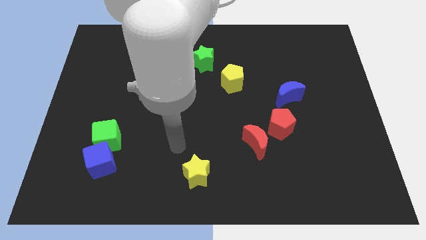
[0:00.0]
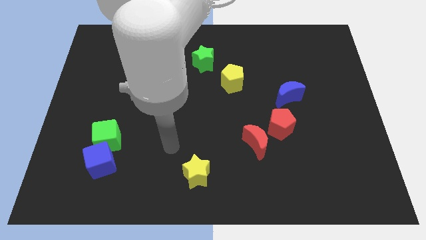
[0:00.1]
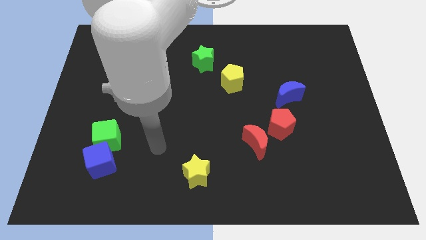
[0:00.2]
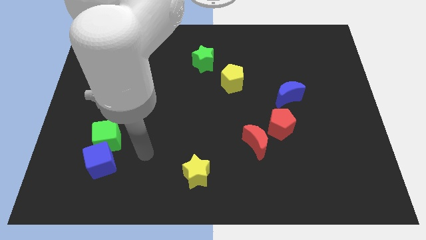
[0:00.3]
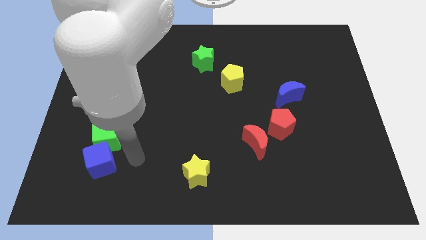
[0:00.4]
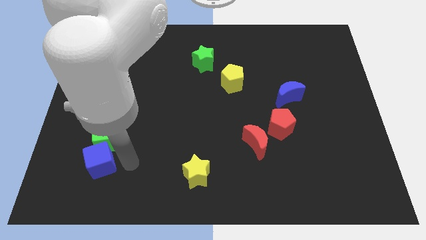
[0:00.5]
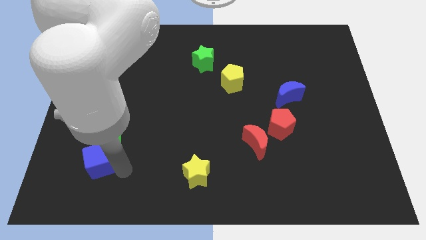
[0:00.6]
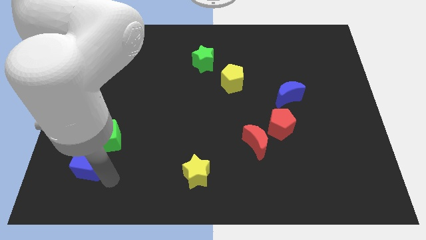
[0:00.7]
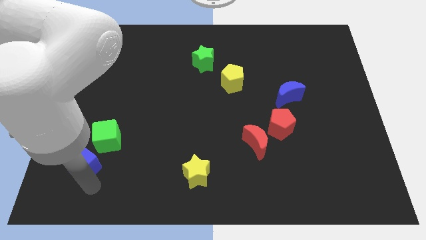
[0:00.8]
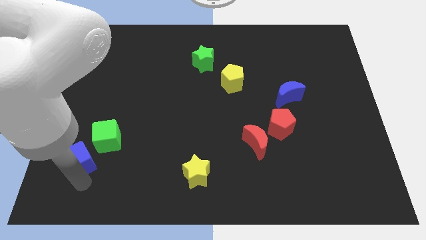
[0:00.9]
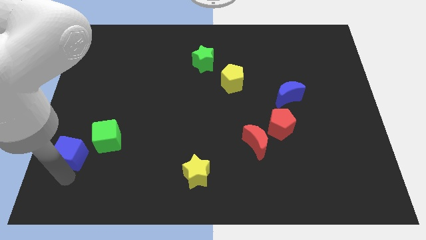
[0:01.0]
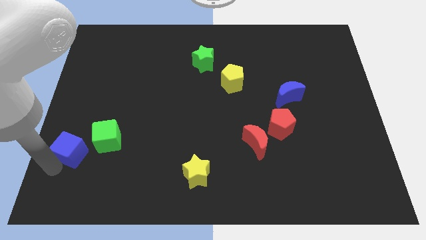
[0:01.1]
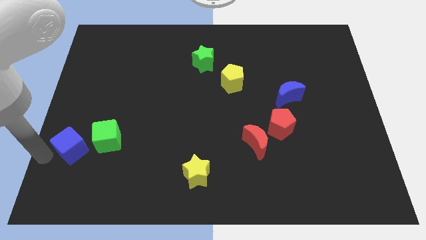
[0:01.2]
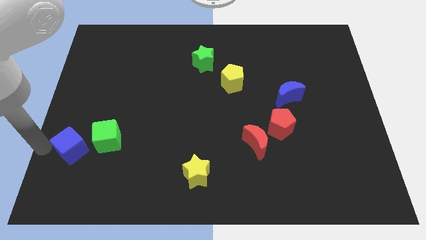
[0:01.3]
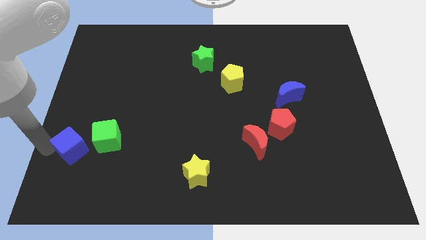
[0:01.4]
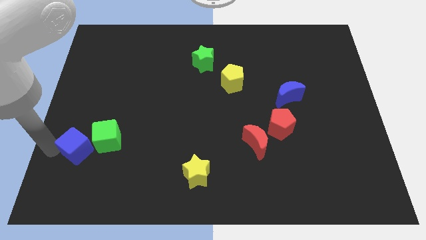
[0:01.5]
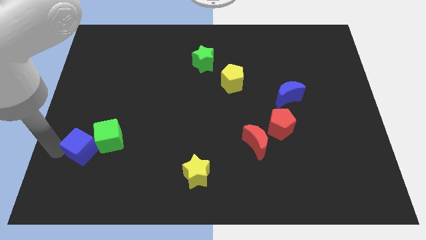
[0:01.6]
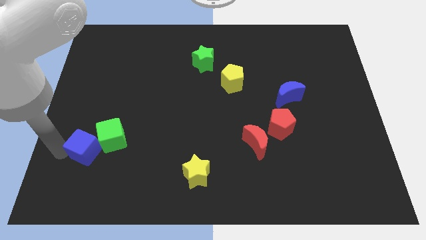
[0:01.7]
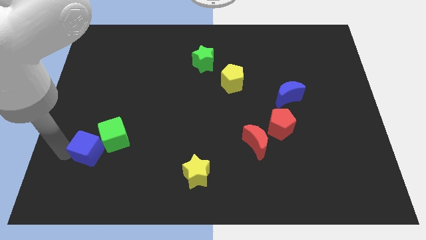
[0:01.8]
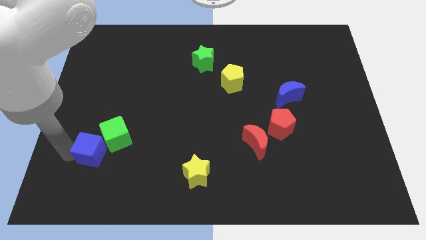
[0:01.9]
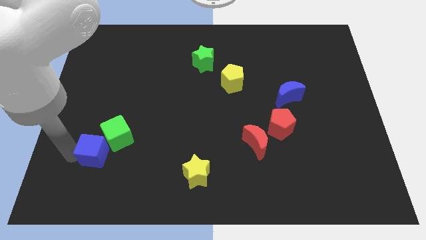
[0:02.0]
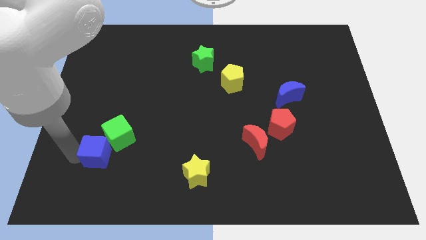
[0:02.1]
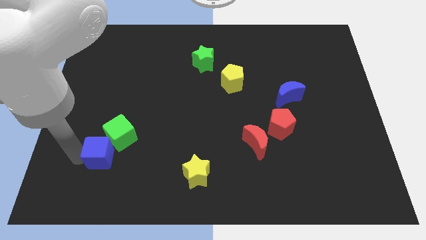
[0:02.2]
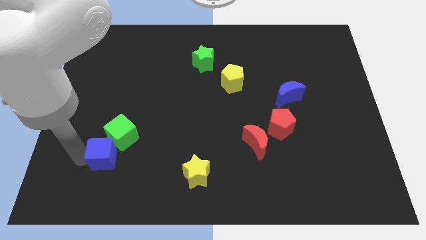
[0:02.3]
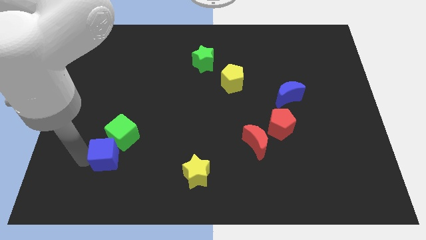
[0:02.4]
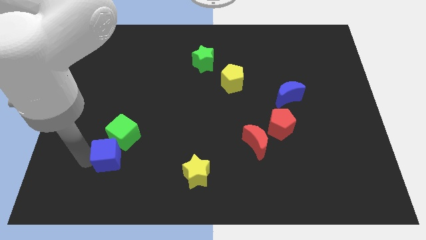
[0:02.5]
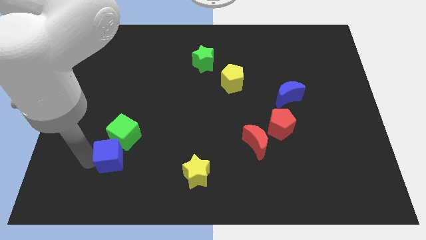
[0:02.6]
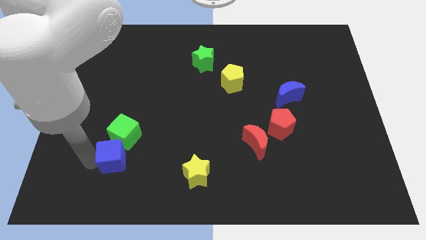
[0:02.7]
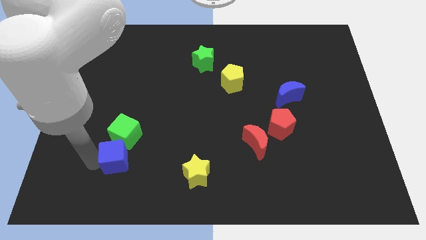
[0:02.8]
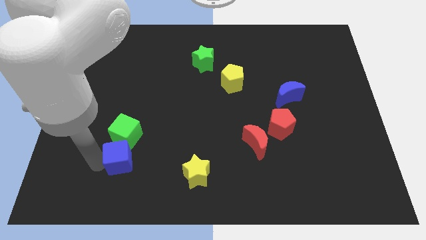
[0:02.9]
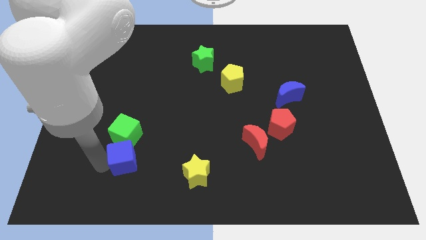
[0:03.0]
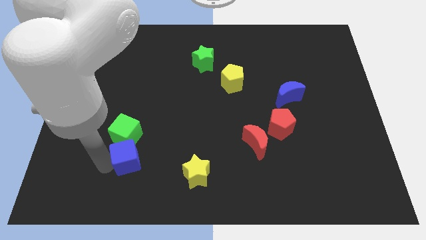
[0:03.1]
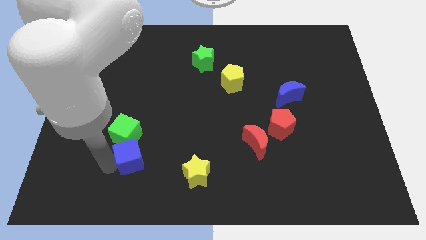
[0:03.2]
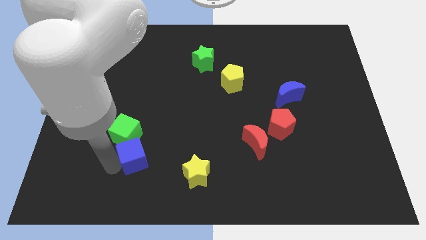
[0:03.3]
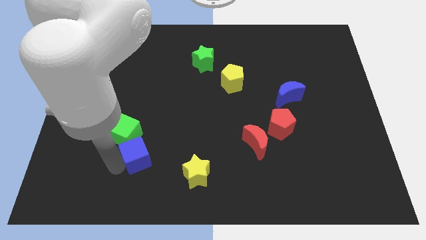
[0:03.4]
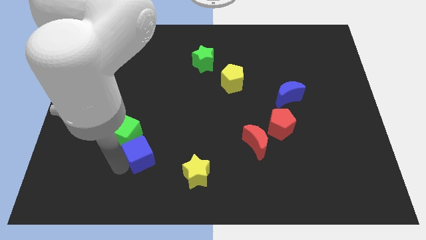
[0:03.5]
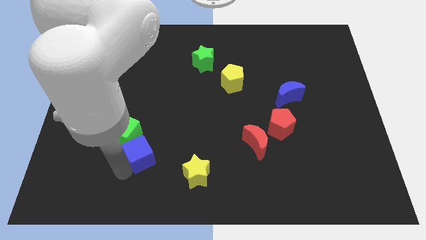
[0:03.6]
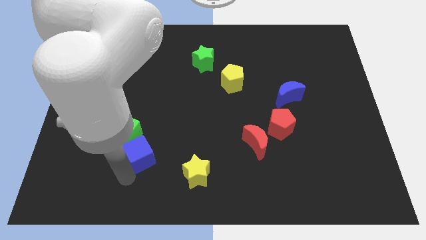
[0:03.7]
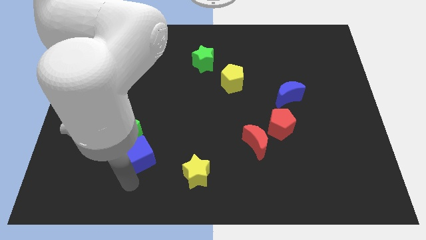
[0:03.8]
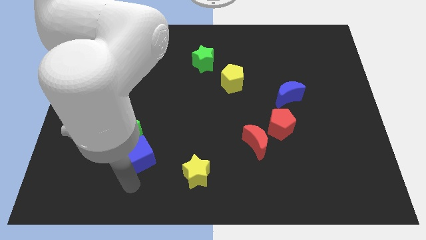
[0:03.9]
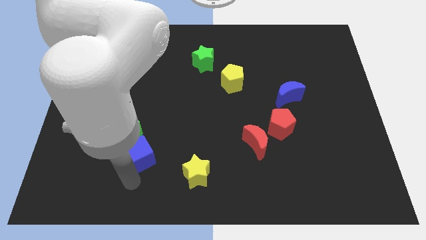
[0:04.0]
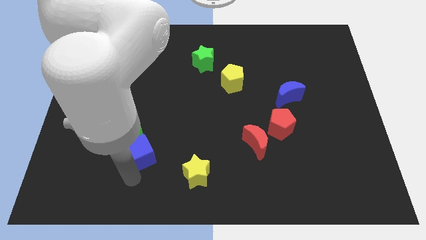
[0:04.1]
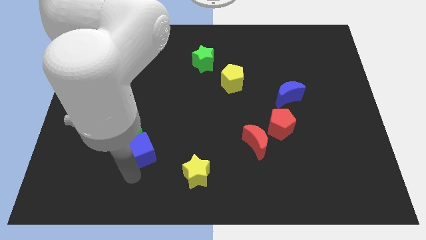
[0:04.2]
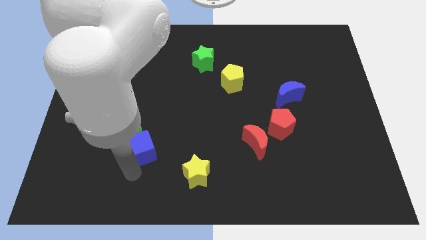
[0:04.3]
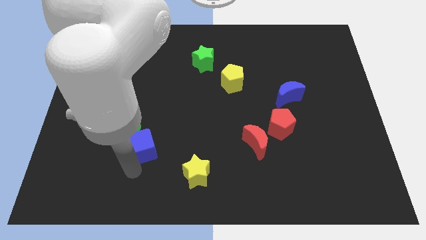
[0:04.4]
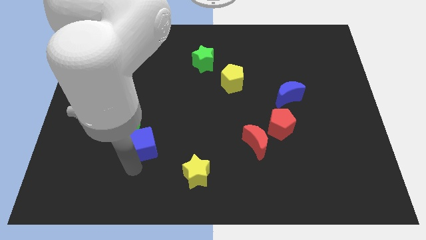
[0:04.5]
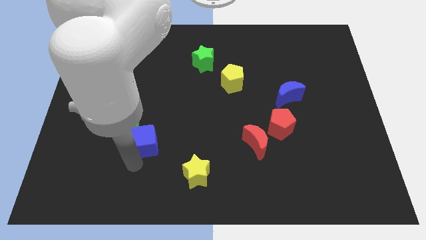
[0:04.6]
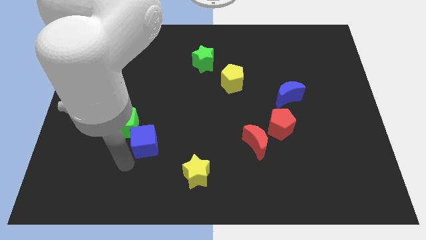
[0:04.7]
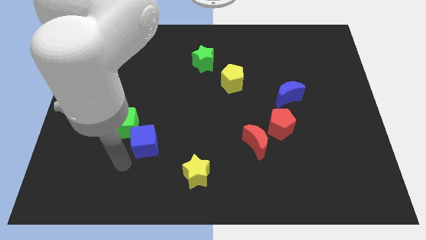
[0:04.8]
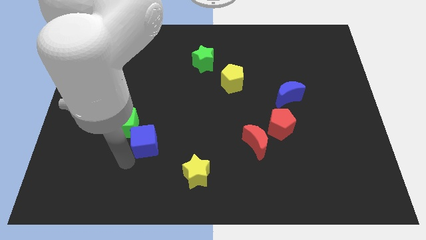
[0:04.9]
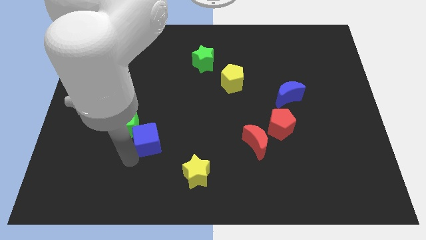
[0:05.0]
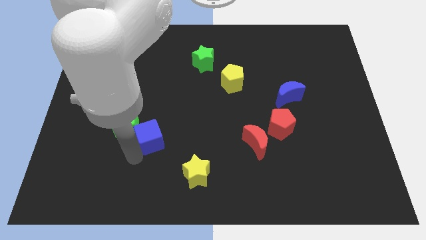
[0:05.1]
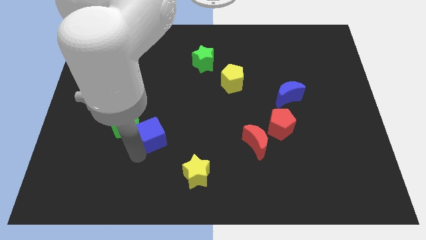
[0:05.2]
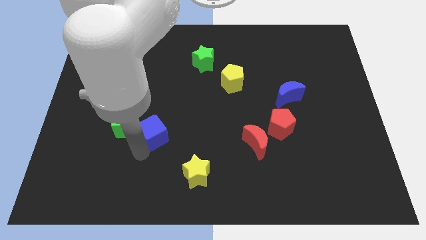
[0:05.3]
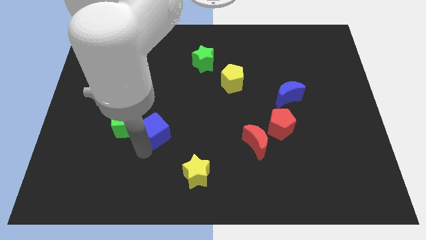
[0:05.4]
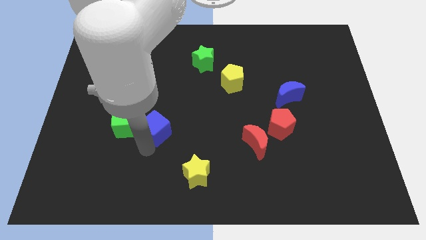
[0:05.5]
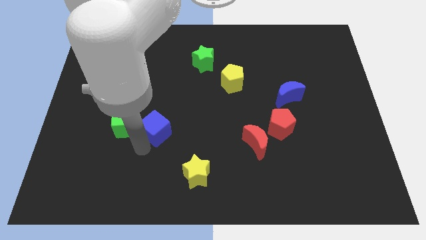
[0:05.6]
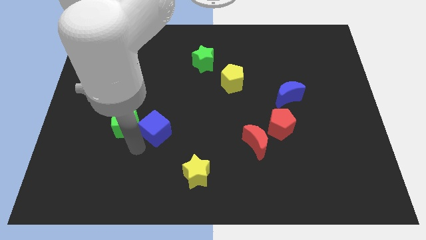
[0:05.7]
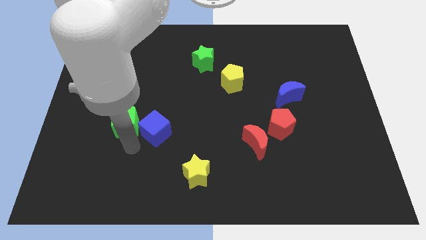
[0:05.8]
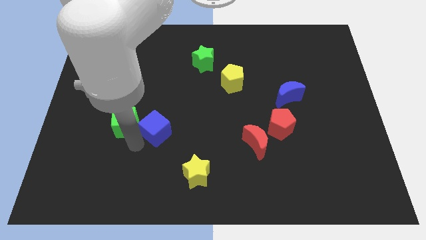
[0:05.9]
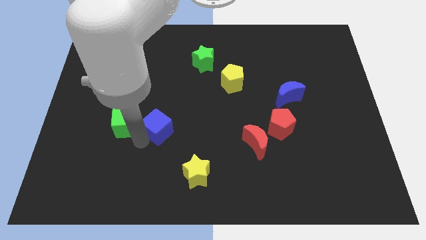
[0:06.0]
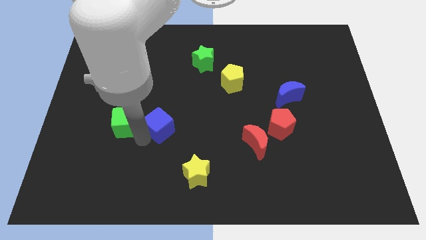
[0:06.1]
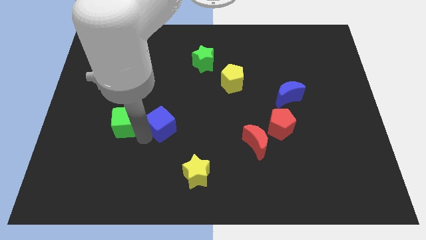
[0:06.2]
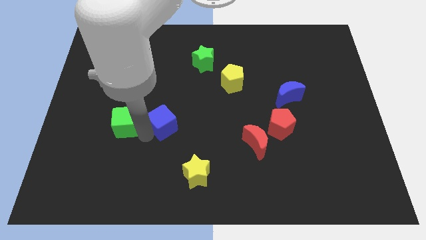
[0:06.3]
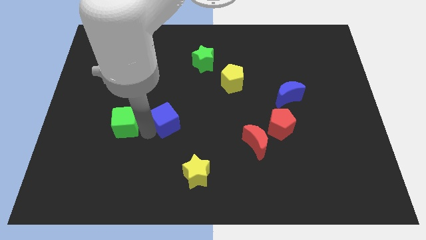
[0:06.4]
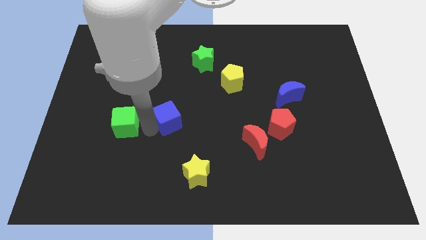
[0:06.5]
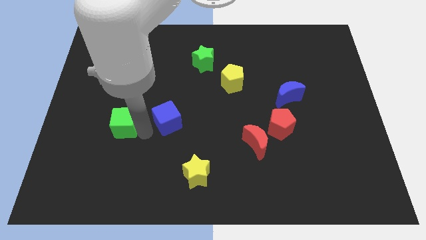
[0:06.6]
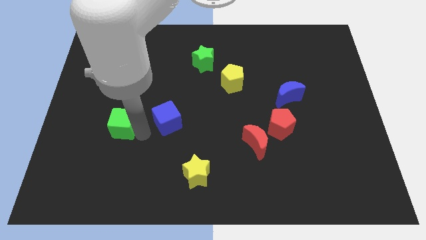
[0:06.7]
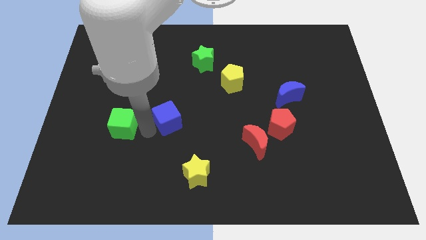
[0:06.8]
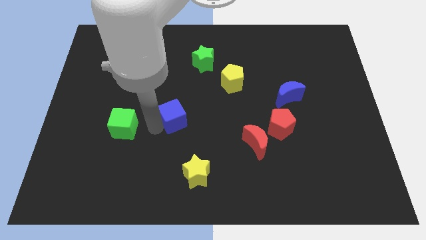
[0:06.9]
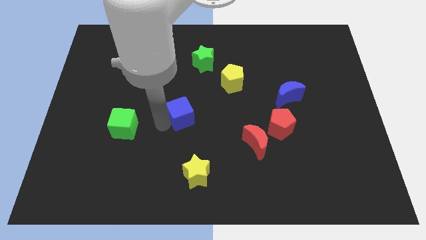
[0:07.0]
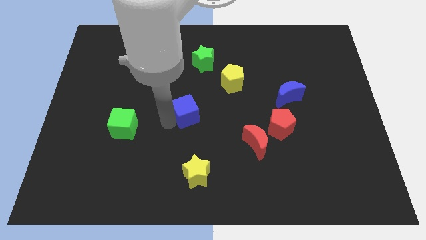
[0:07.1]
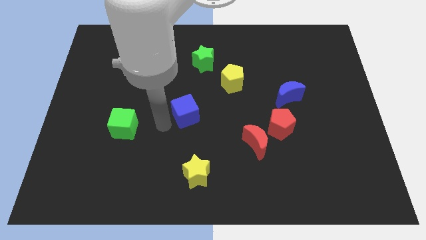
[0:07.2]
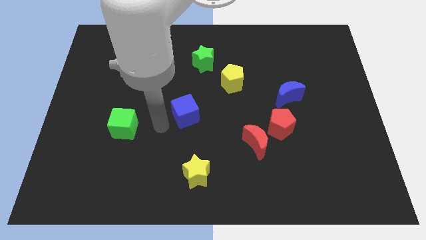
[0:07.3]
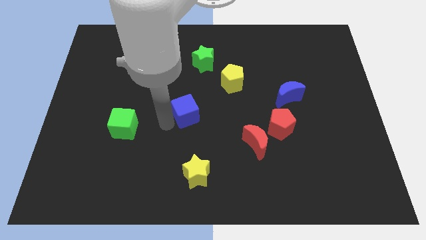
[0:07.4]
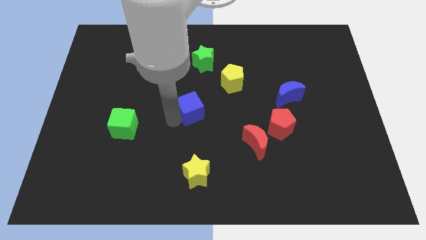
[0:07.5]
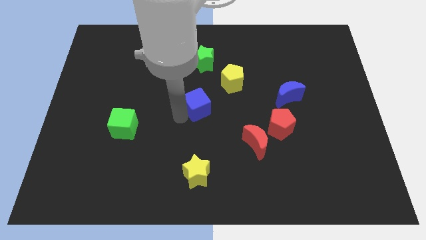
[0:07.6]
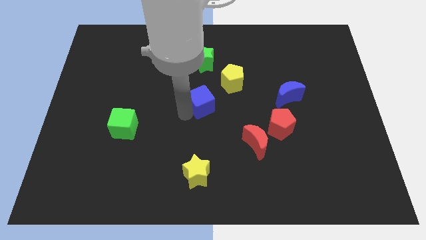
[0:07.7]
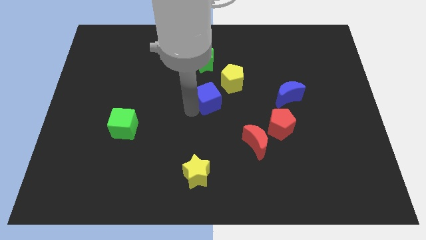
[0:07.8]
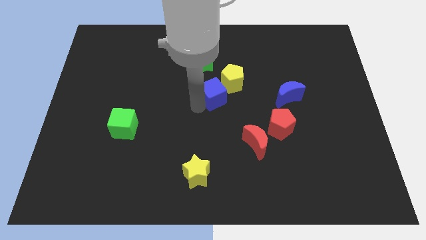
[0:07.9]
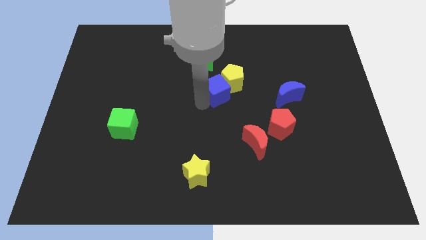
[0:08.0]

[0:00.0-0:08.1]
put the blue cube next to the yellow pentagon
